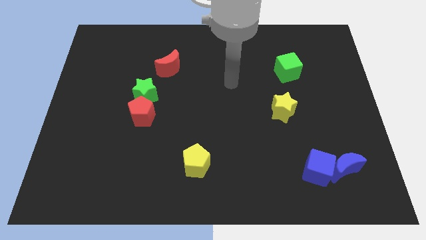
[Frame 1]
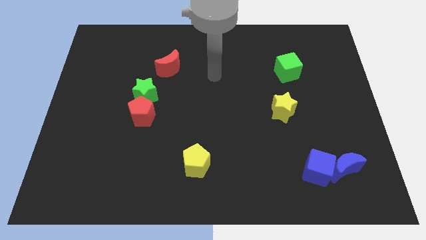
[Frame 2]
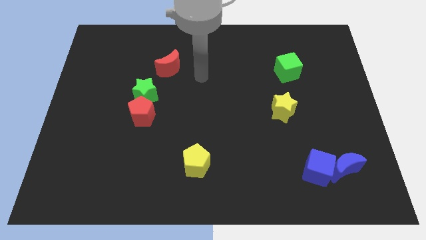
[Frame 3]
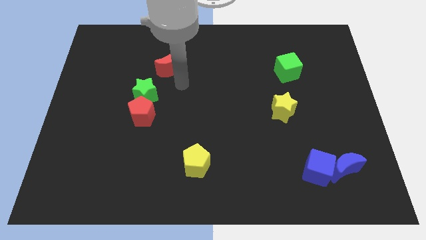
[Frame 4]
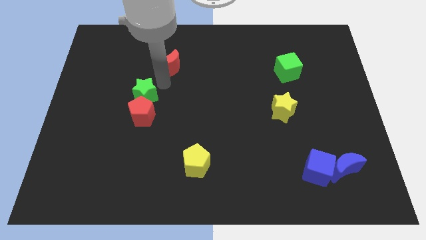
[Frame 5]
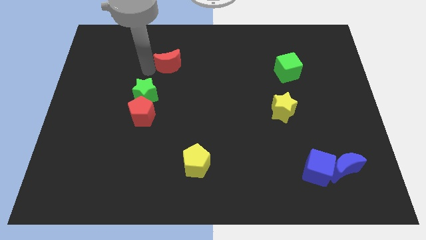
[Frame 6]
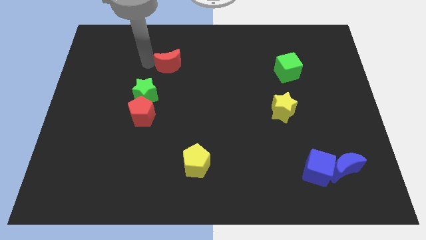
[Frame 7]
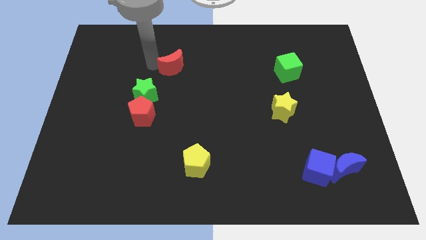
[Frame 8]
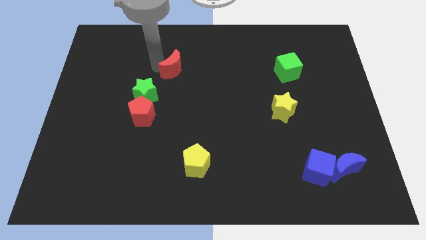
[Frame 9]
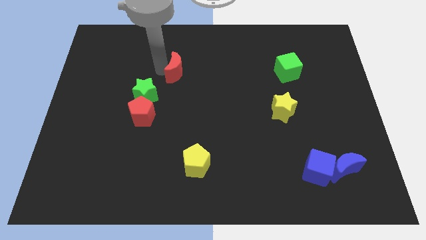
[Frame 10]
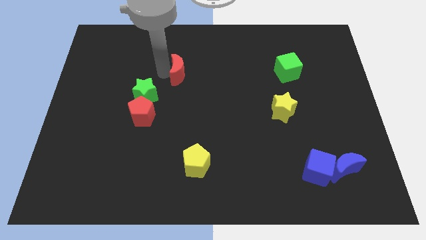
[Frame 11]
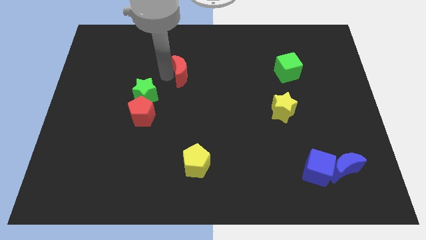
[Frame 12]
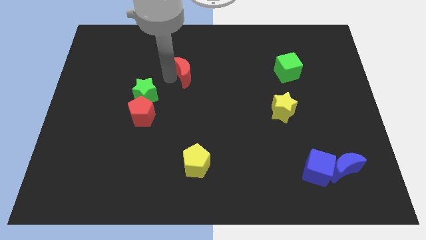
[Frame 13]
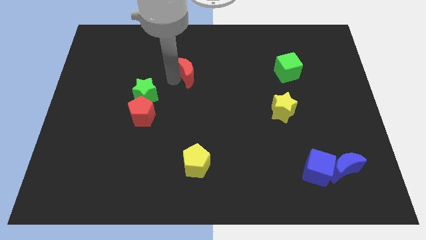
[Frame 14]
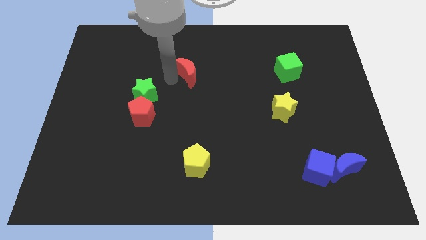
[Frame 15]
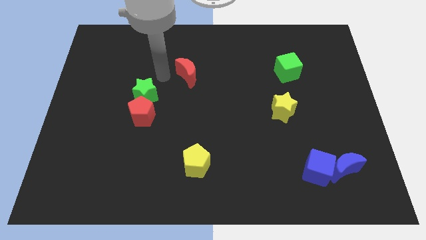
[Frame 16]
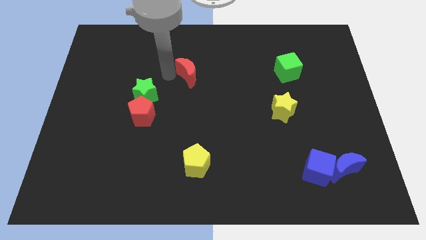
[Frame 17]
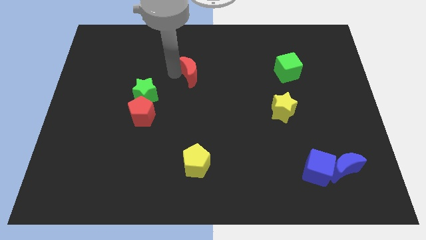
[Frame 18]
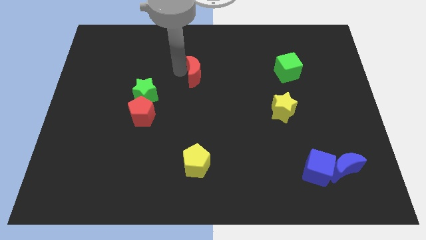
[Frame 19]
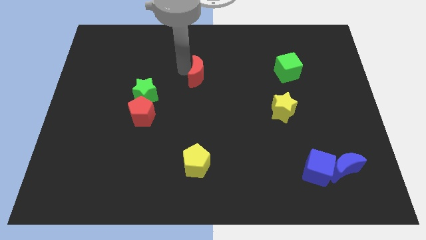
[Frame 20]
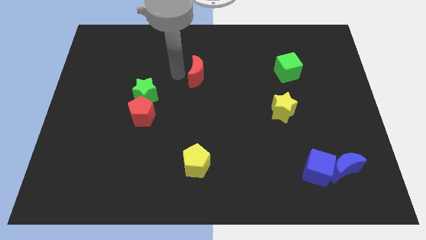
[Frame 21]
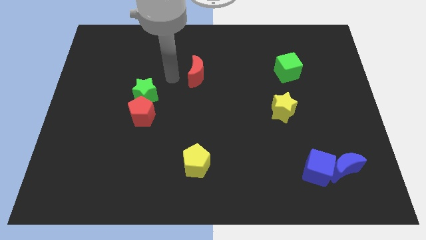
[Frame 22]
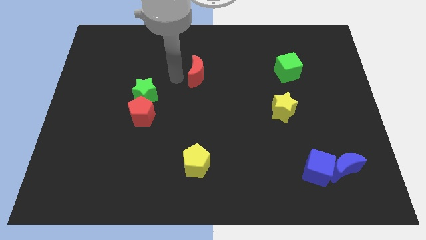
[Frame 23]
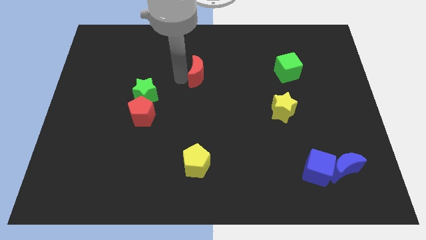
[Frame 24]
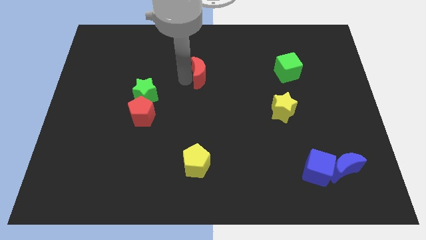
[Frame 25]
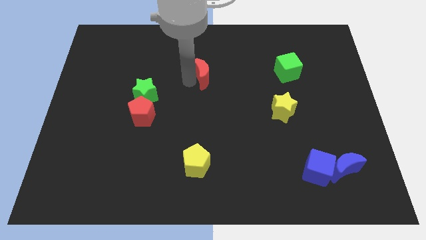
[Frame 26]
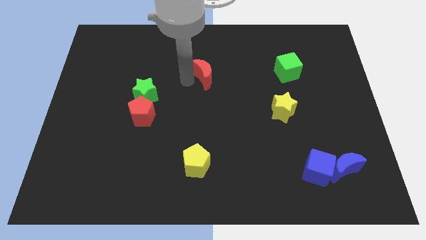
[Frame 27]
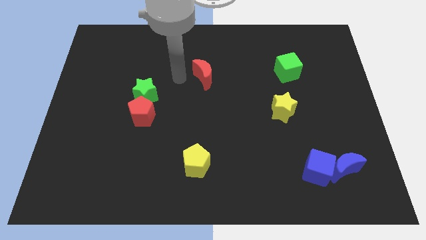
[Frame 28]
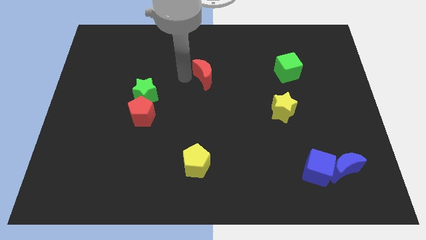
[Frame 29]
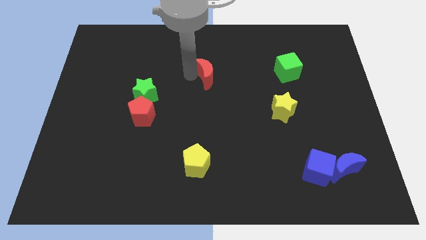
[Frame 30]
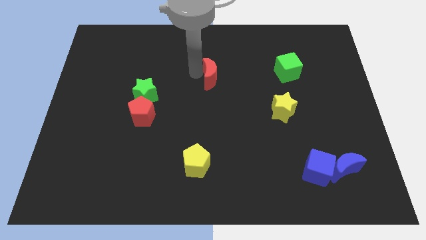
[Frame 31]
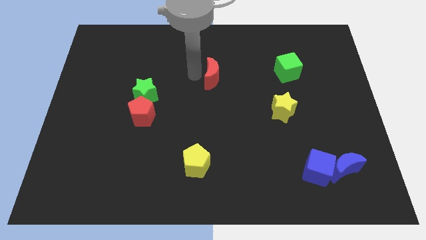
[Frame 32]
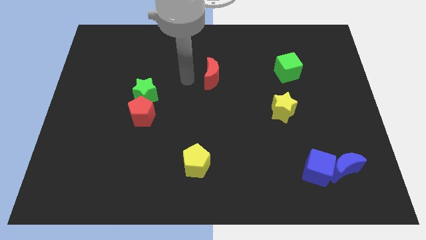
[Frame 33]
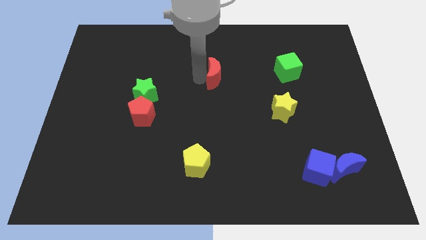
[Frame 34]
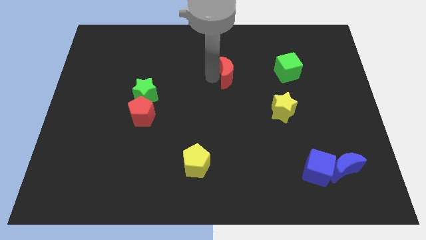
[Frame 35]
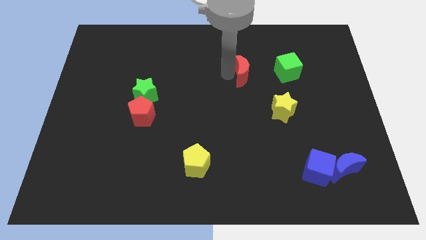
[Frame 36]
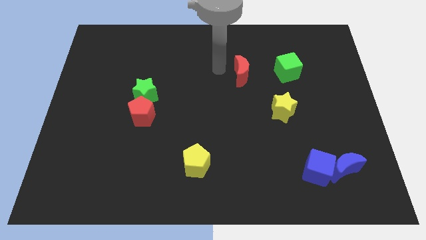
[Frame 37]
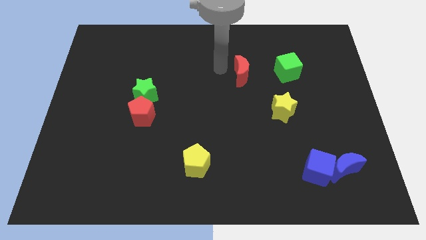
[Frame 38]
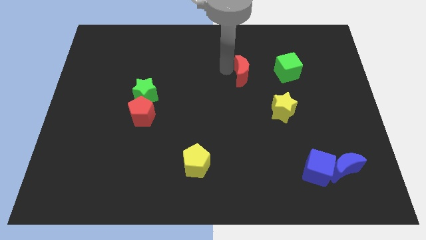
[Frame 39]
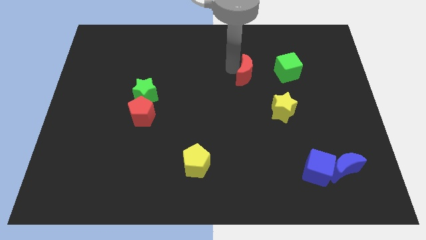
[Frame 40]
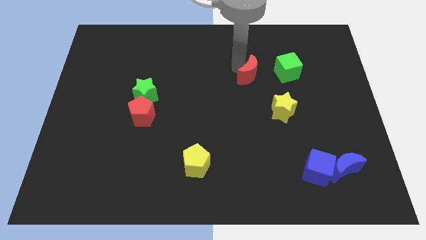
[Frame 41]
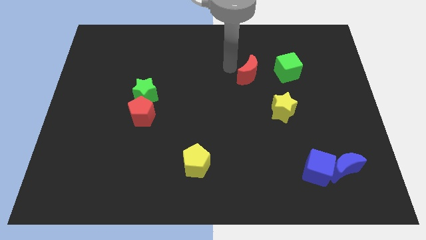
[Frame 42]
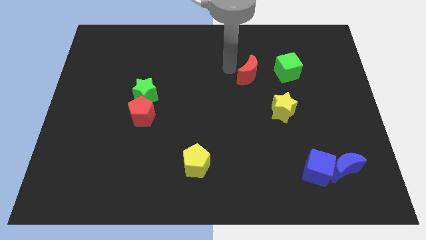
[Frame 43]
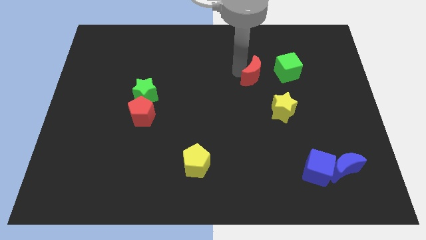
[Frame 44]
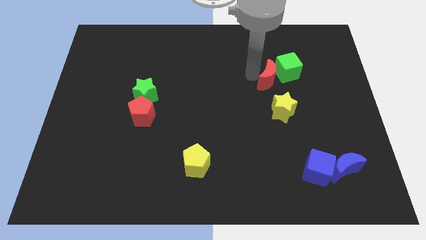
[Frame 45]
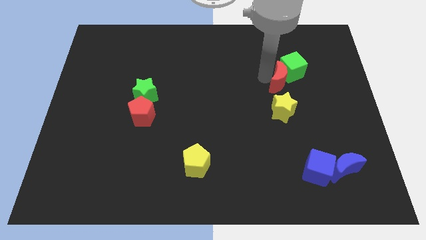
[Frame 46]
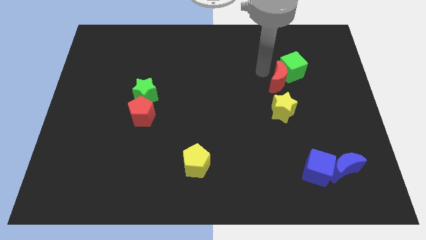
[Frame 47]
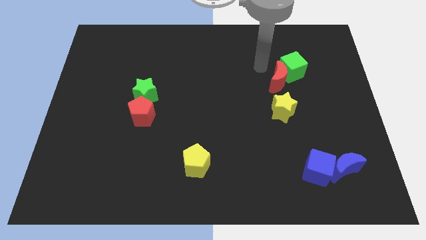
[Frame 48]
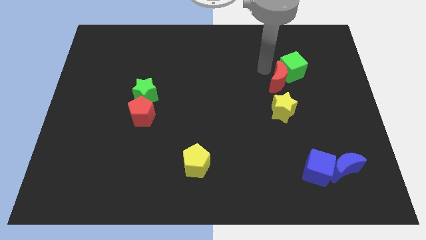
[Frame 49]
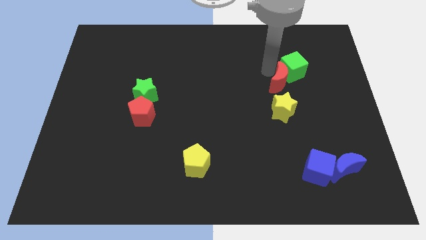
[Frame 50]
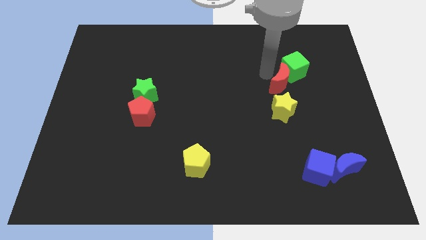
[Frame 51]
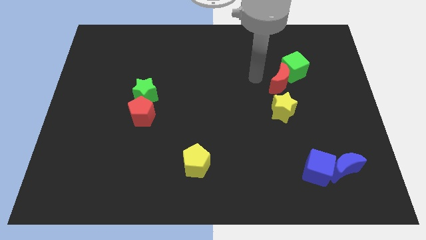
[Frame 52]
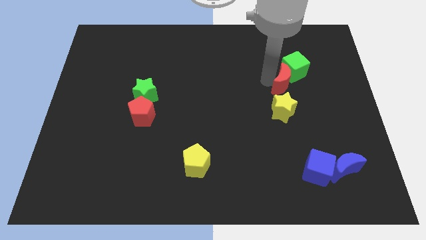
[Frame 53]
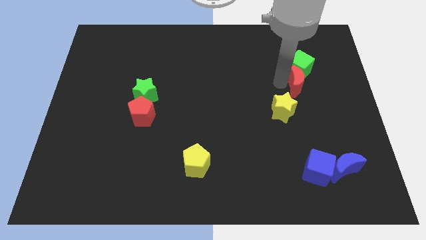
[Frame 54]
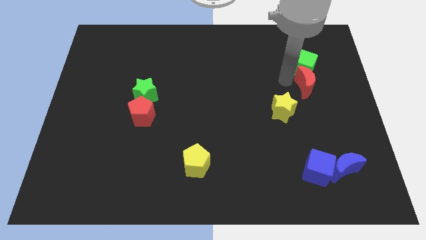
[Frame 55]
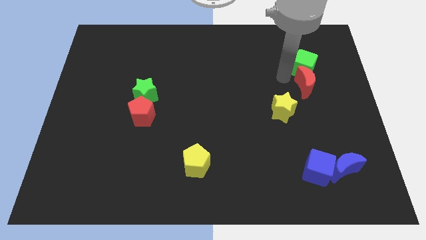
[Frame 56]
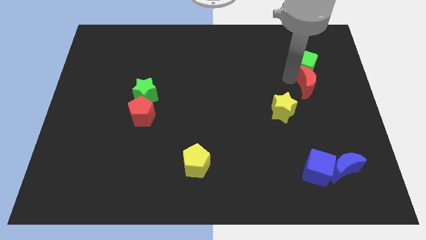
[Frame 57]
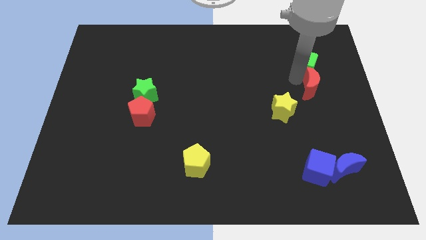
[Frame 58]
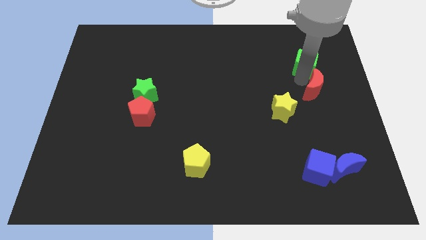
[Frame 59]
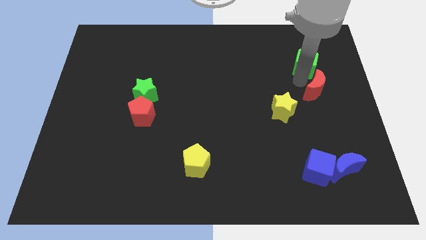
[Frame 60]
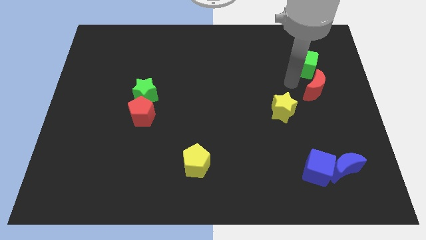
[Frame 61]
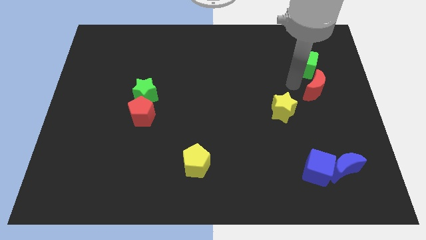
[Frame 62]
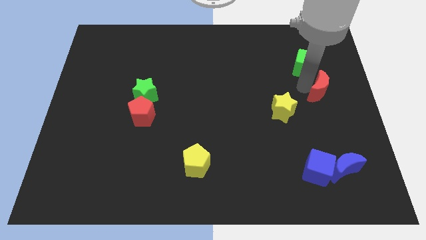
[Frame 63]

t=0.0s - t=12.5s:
slide the red moon to the center right
